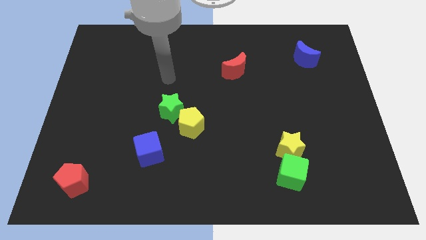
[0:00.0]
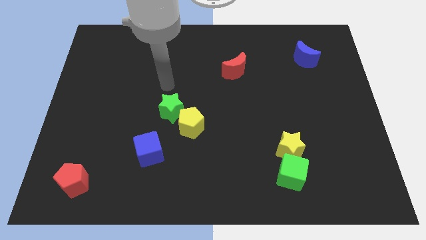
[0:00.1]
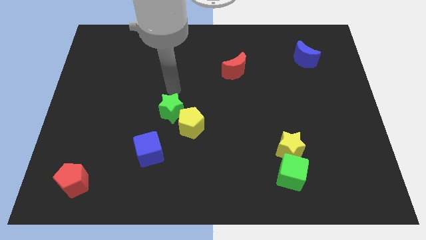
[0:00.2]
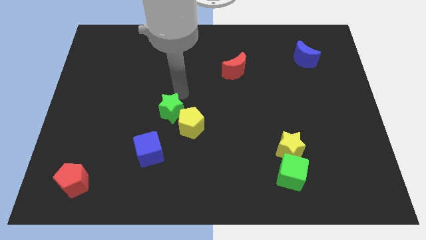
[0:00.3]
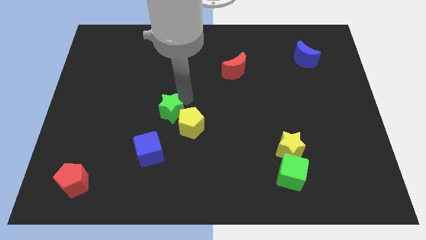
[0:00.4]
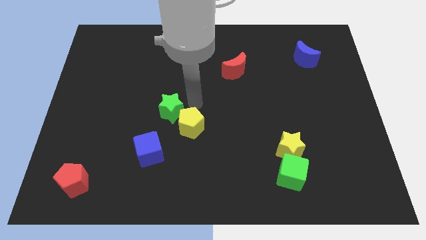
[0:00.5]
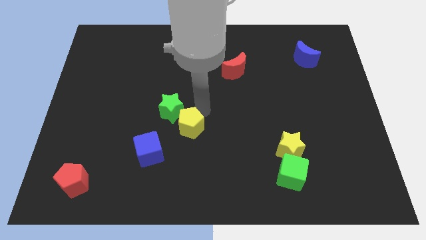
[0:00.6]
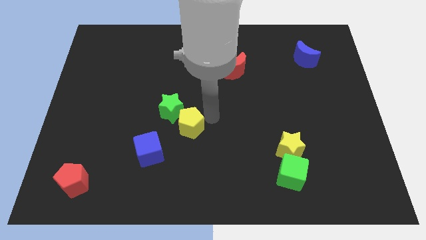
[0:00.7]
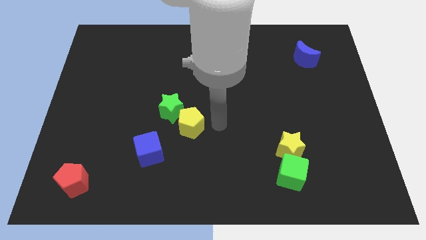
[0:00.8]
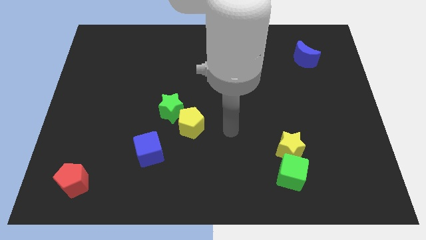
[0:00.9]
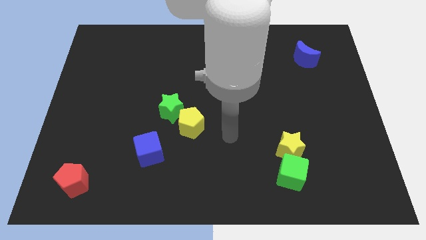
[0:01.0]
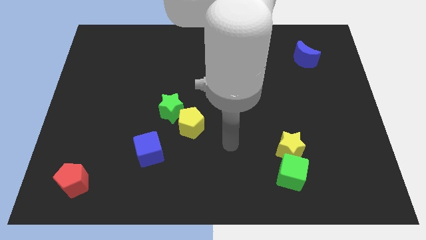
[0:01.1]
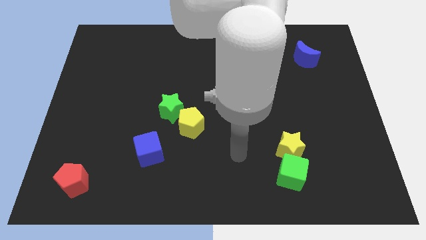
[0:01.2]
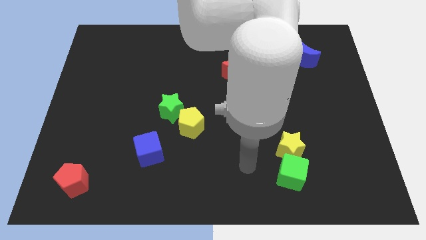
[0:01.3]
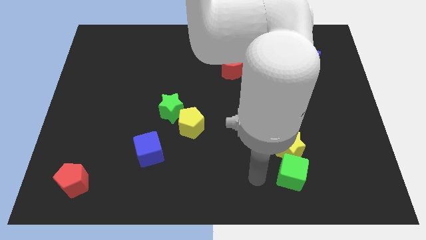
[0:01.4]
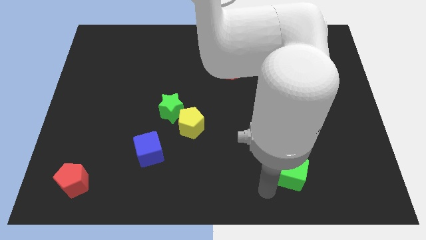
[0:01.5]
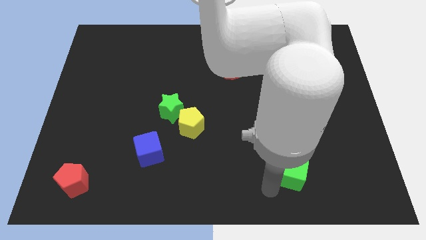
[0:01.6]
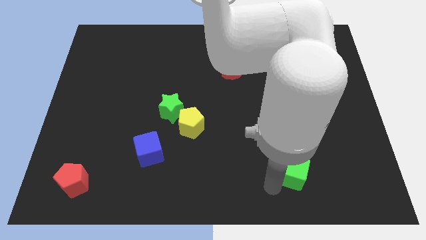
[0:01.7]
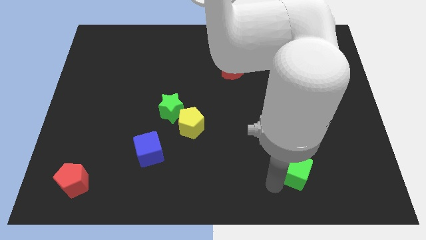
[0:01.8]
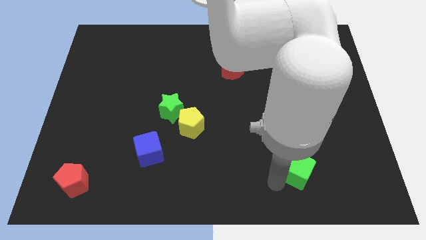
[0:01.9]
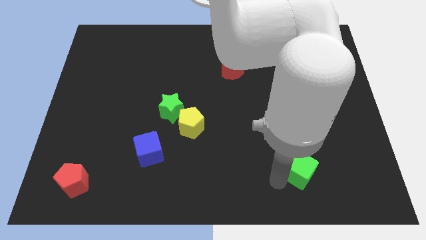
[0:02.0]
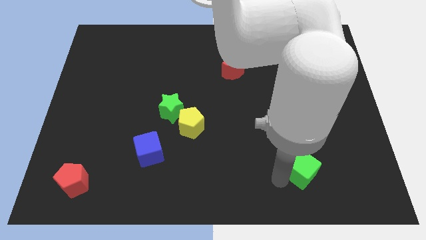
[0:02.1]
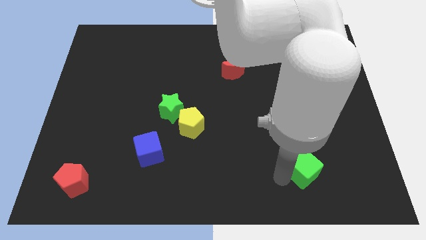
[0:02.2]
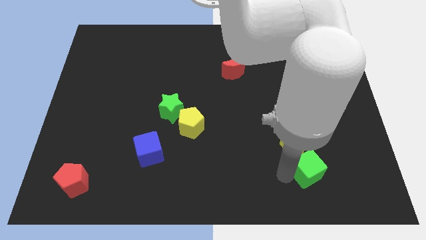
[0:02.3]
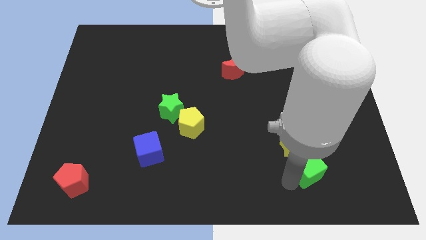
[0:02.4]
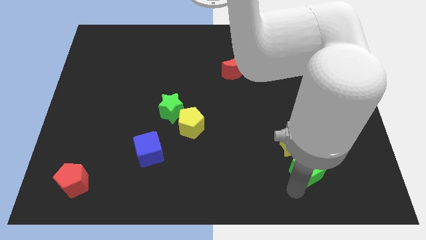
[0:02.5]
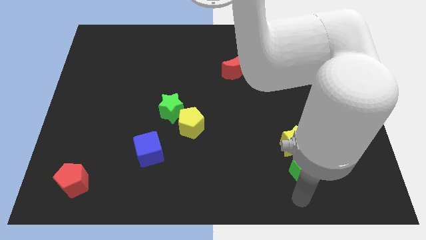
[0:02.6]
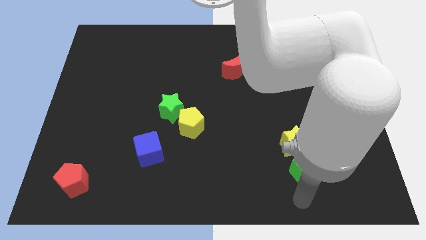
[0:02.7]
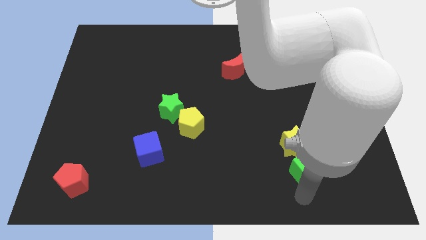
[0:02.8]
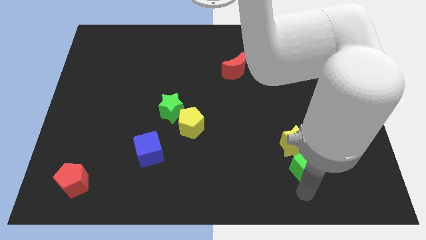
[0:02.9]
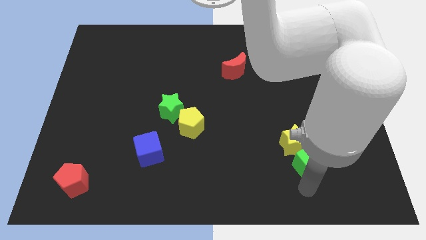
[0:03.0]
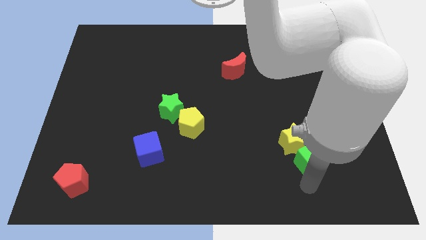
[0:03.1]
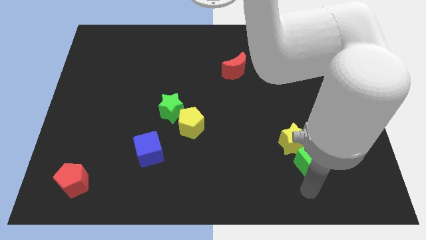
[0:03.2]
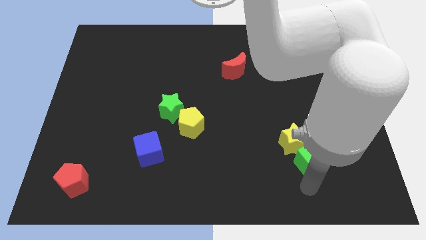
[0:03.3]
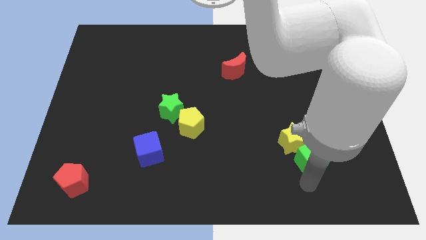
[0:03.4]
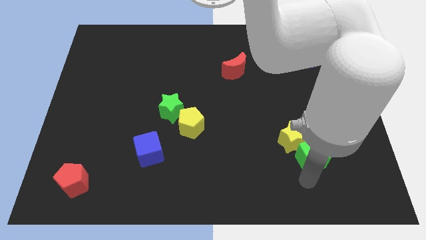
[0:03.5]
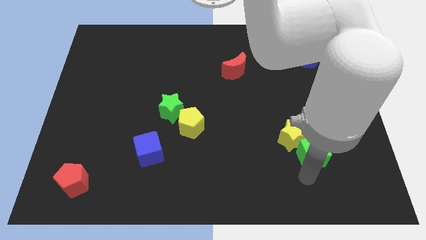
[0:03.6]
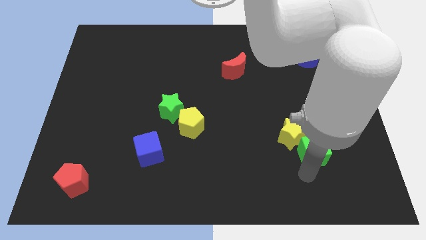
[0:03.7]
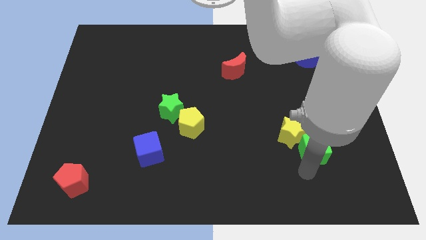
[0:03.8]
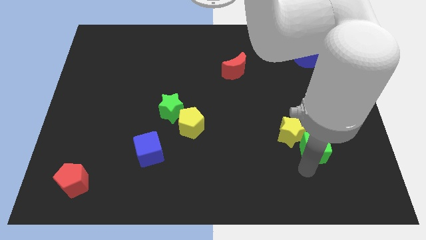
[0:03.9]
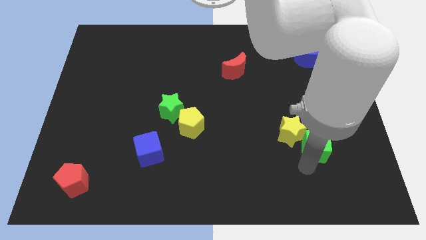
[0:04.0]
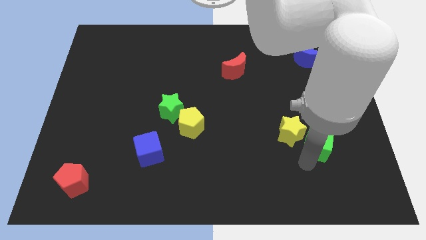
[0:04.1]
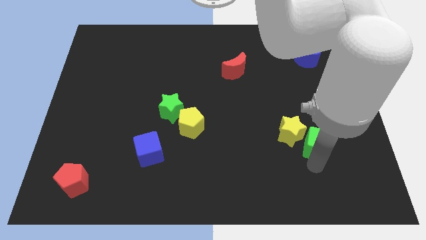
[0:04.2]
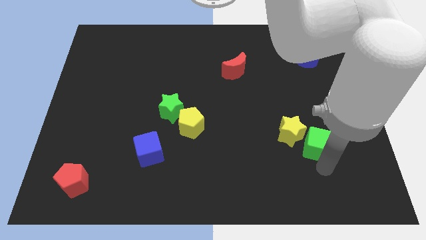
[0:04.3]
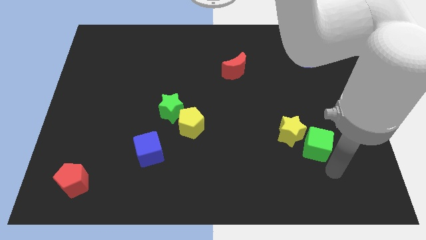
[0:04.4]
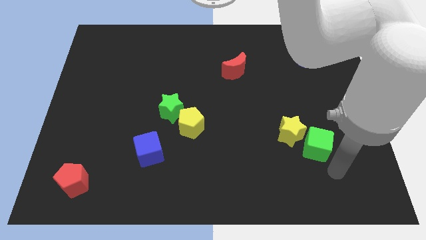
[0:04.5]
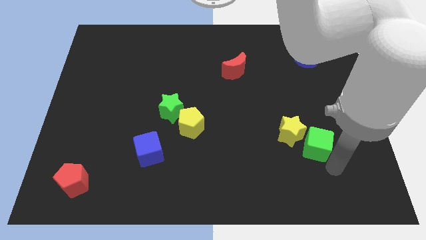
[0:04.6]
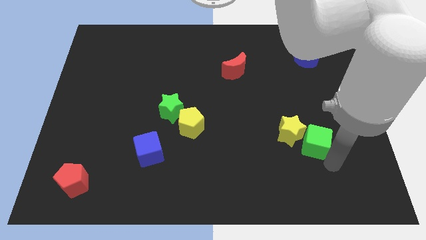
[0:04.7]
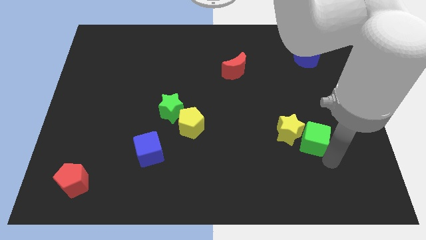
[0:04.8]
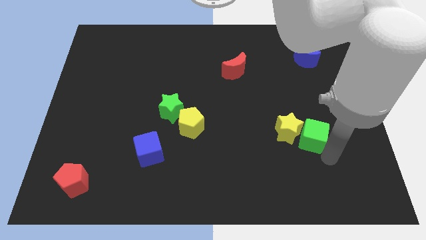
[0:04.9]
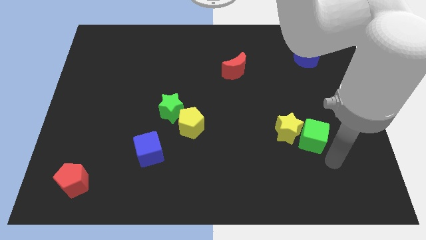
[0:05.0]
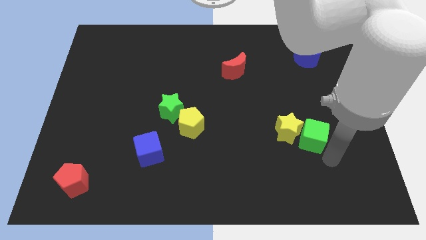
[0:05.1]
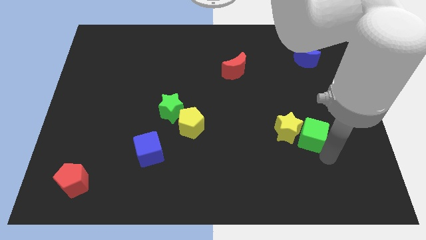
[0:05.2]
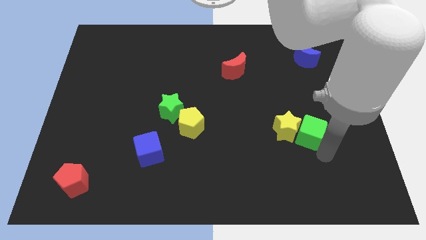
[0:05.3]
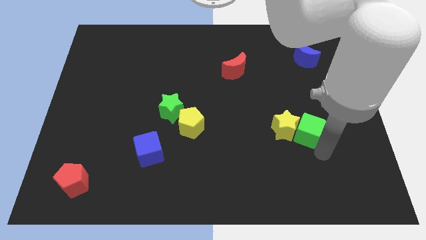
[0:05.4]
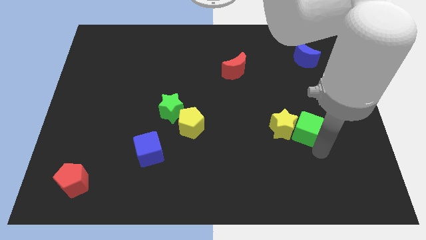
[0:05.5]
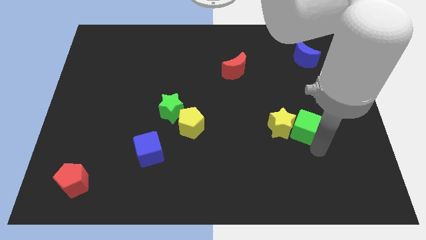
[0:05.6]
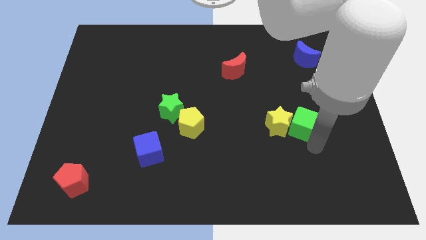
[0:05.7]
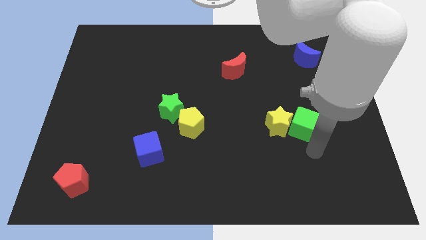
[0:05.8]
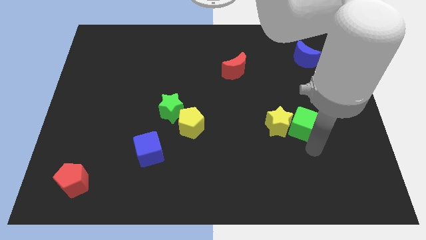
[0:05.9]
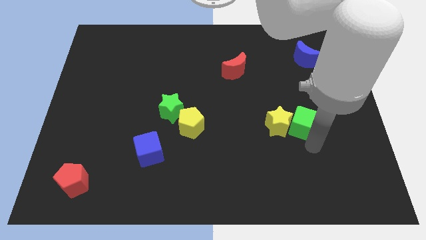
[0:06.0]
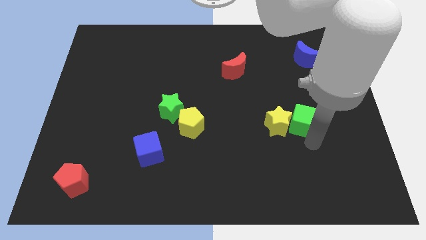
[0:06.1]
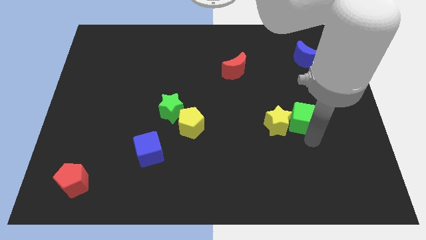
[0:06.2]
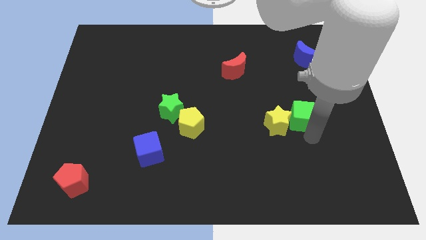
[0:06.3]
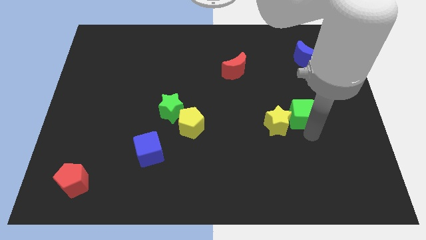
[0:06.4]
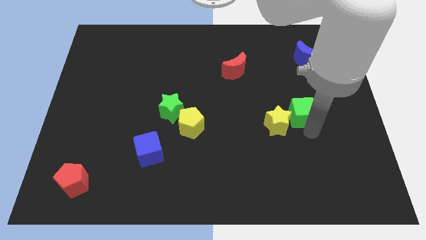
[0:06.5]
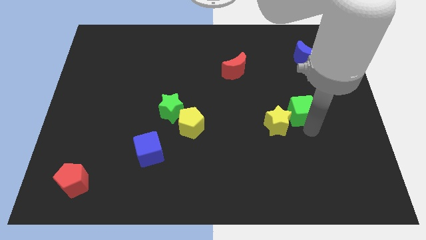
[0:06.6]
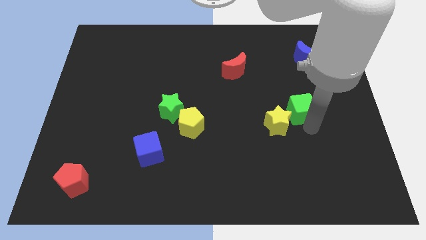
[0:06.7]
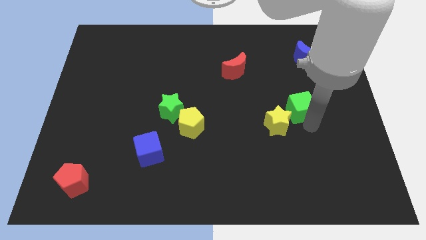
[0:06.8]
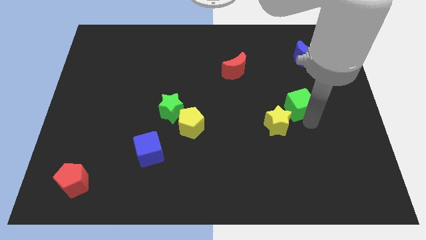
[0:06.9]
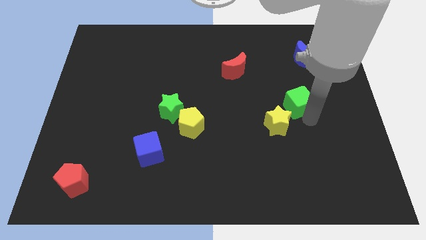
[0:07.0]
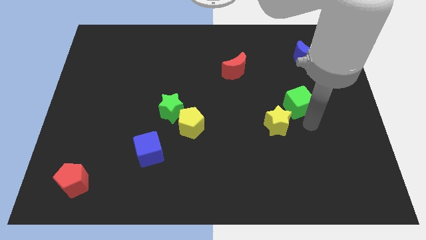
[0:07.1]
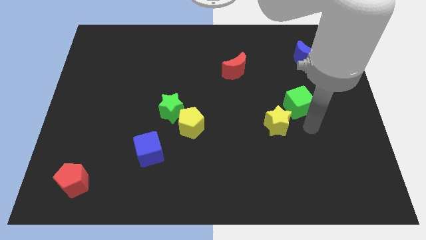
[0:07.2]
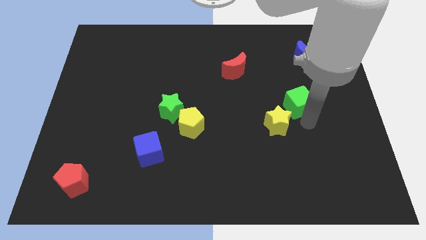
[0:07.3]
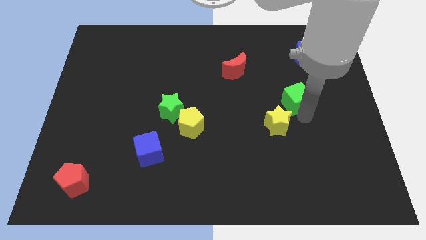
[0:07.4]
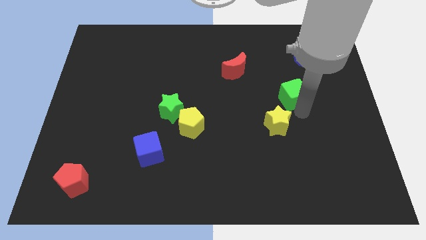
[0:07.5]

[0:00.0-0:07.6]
move the green cube upwards

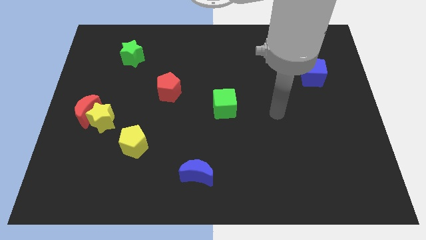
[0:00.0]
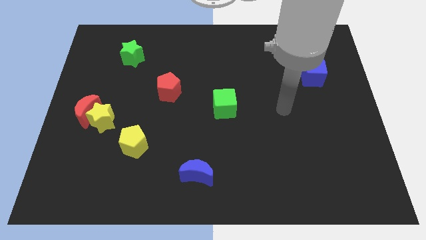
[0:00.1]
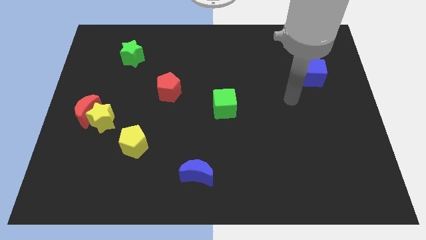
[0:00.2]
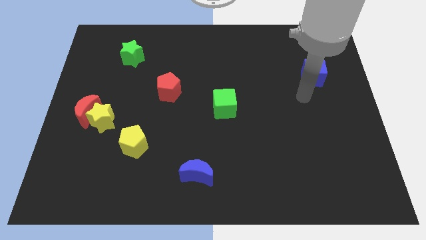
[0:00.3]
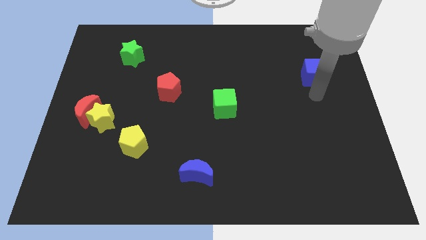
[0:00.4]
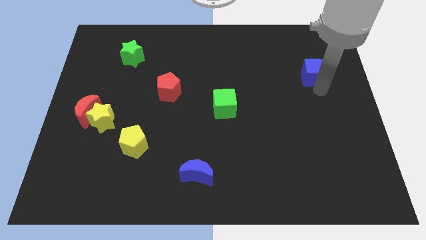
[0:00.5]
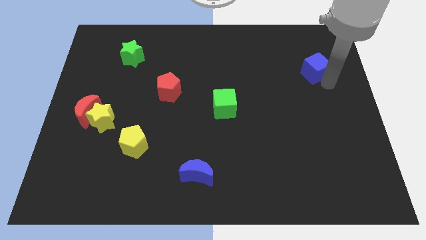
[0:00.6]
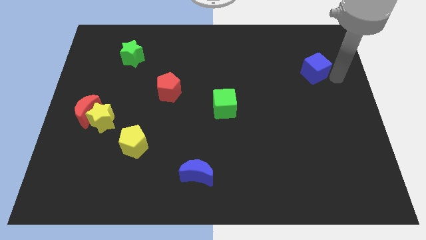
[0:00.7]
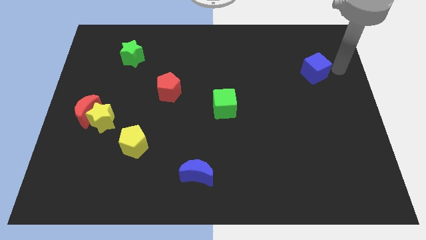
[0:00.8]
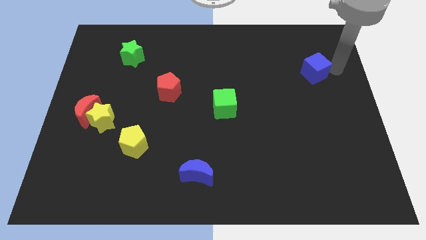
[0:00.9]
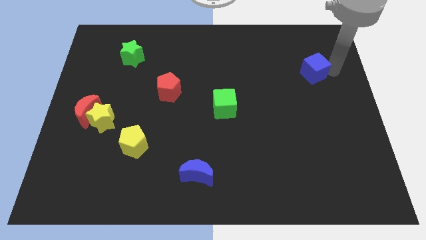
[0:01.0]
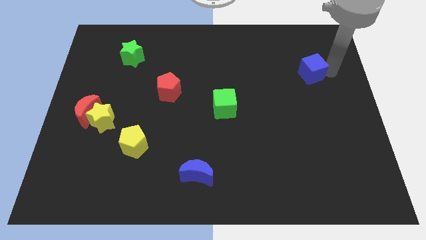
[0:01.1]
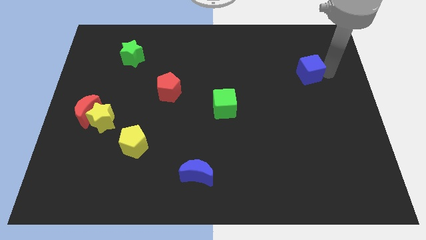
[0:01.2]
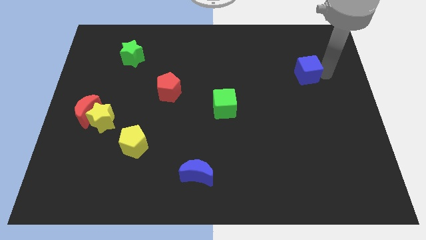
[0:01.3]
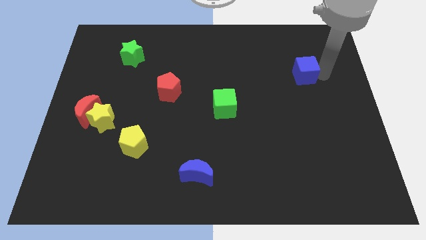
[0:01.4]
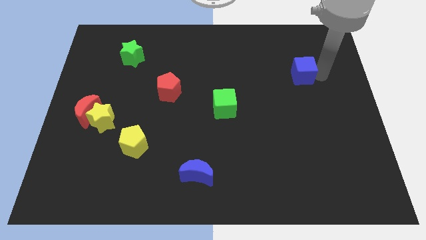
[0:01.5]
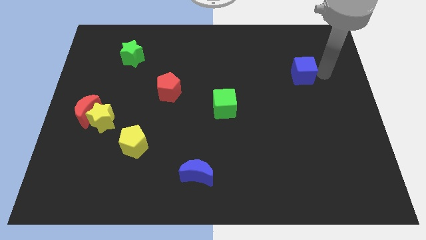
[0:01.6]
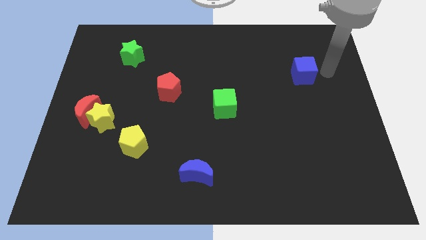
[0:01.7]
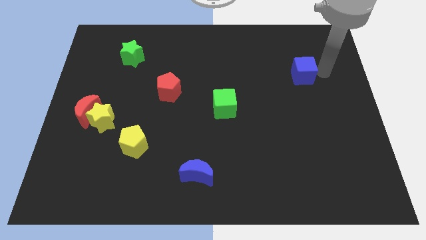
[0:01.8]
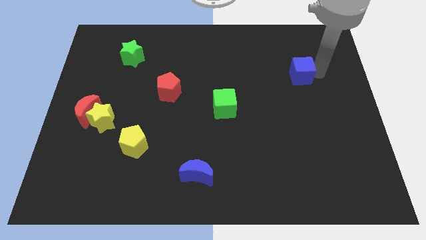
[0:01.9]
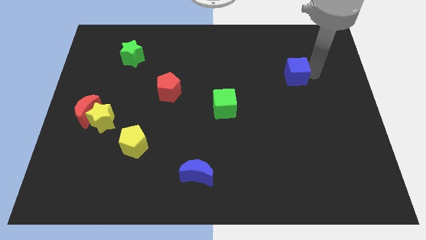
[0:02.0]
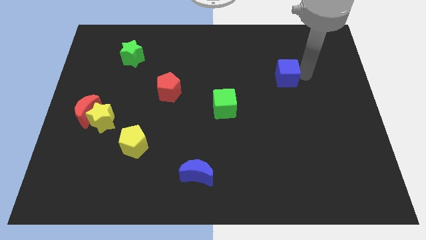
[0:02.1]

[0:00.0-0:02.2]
slide the blue cube a little left
